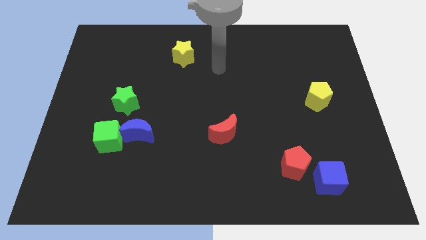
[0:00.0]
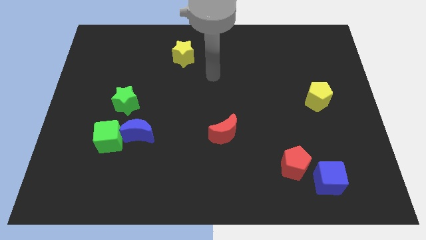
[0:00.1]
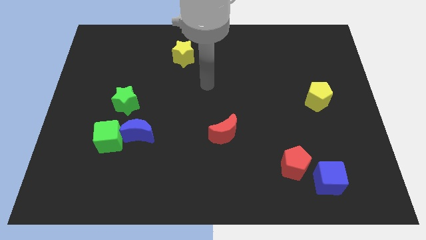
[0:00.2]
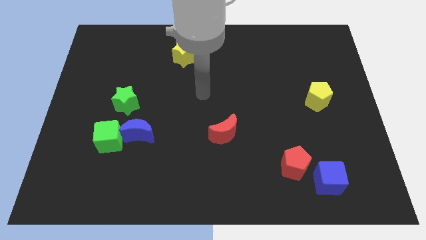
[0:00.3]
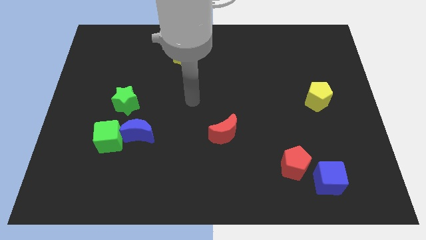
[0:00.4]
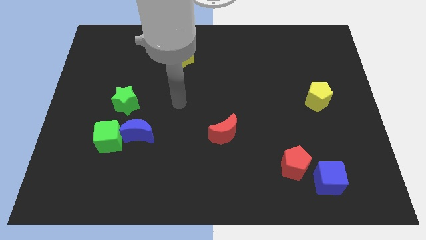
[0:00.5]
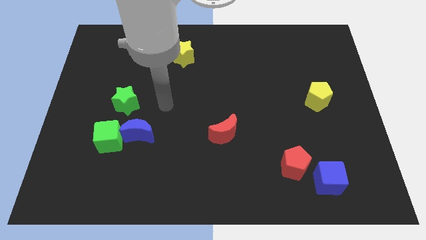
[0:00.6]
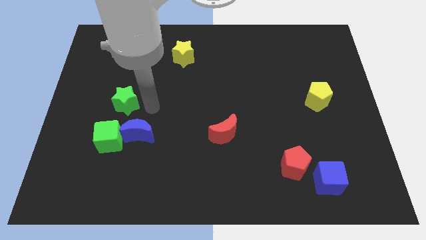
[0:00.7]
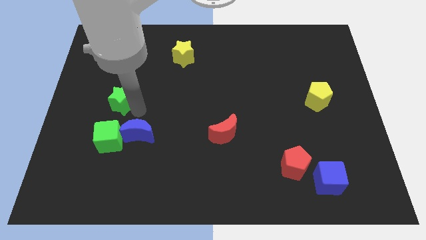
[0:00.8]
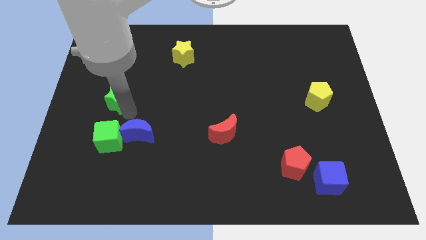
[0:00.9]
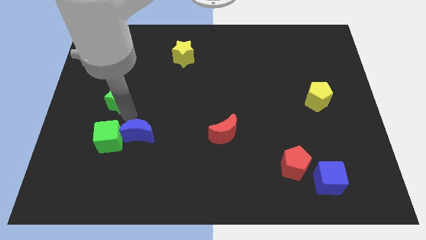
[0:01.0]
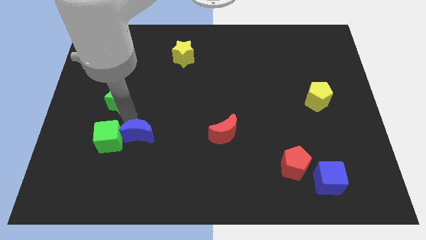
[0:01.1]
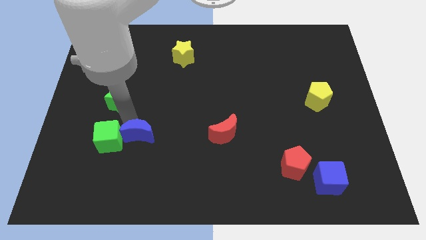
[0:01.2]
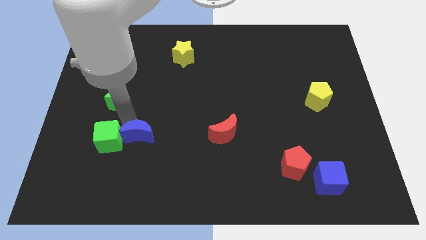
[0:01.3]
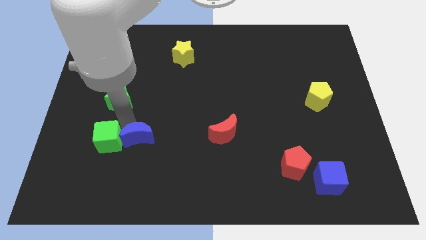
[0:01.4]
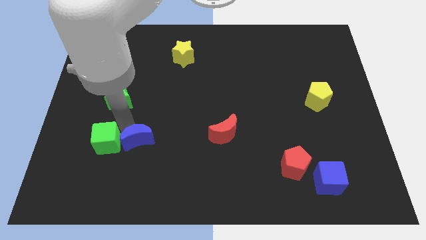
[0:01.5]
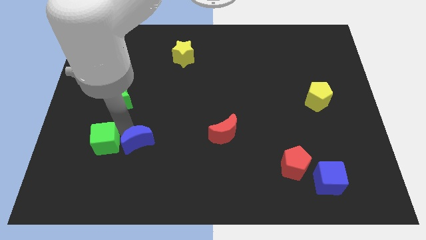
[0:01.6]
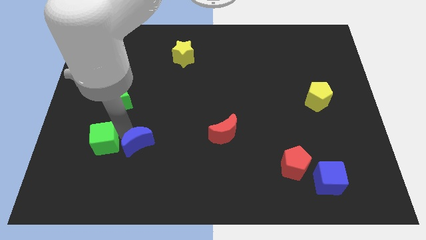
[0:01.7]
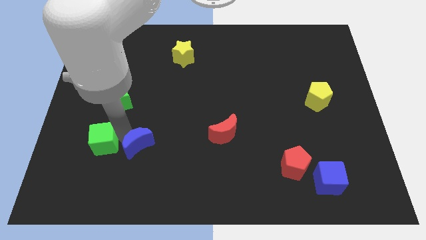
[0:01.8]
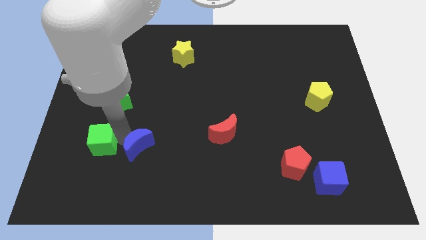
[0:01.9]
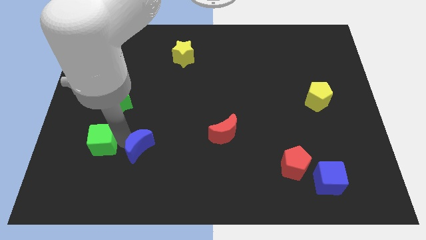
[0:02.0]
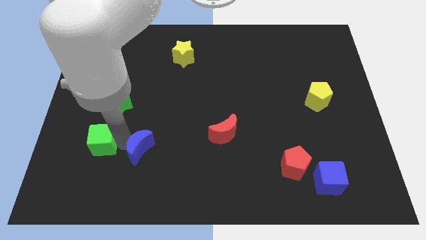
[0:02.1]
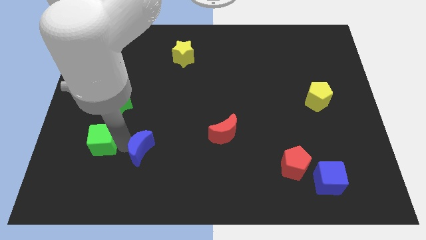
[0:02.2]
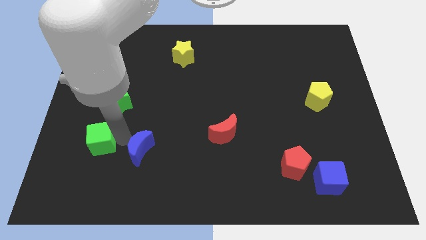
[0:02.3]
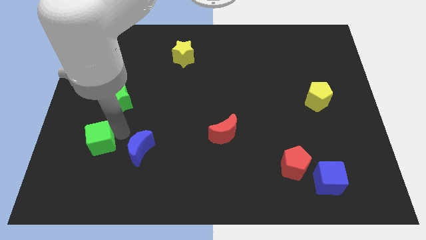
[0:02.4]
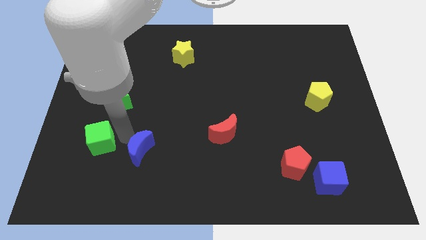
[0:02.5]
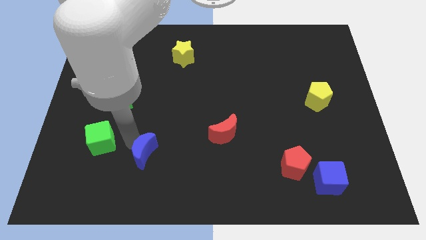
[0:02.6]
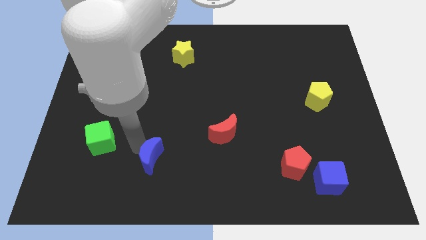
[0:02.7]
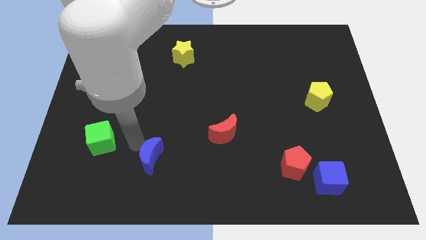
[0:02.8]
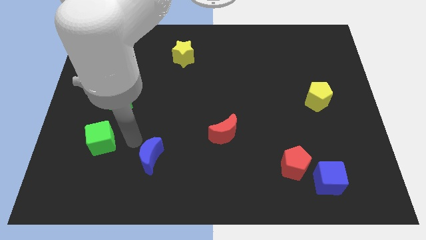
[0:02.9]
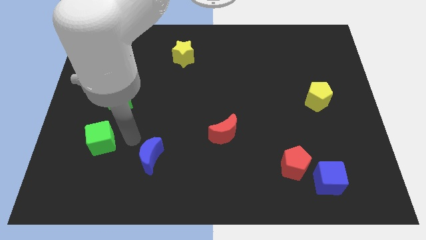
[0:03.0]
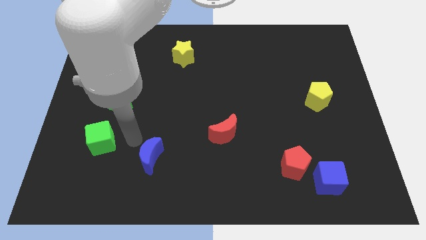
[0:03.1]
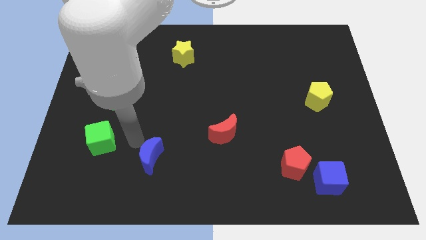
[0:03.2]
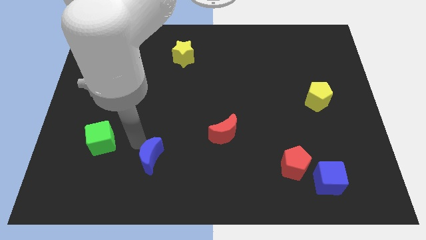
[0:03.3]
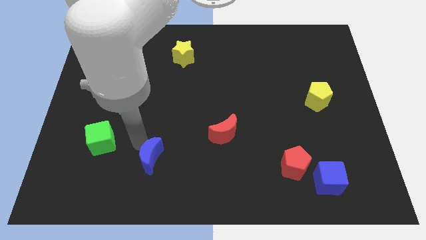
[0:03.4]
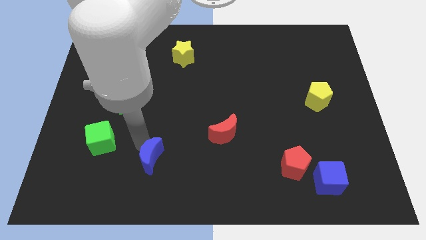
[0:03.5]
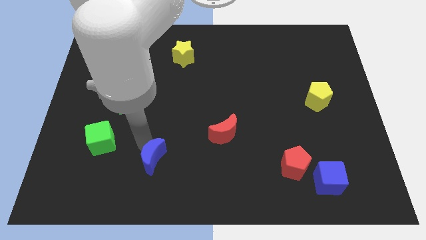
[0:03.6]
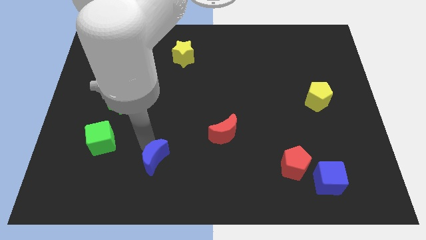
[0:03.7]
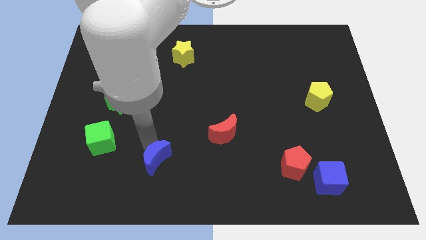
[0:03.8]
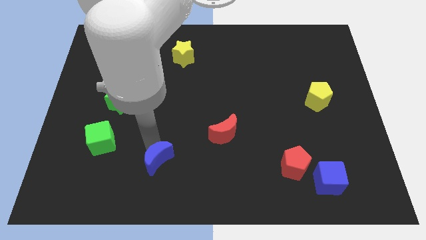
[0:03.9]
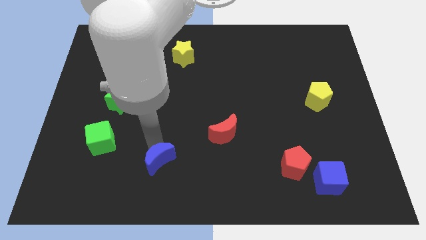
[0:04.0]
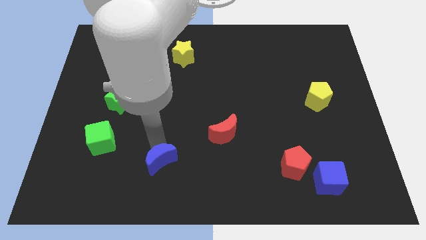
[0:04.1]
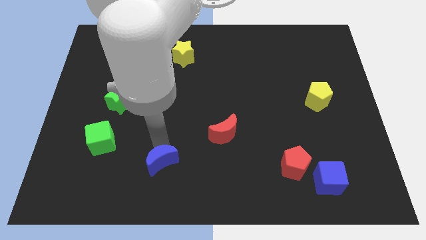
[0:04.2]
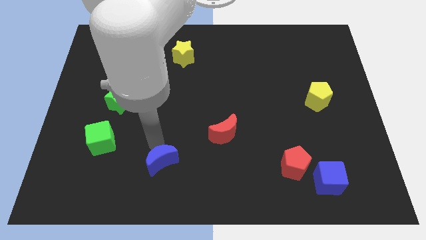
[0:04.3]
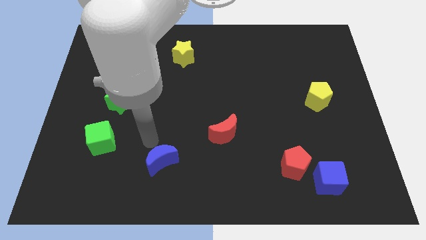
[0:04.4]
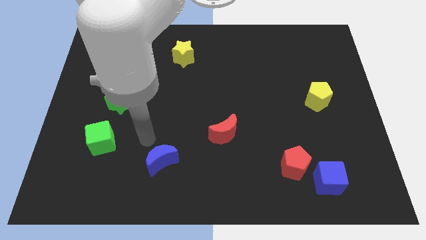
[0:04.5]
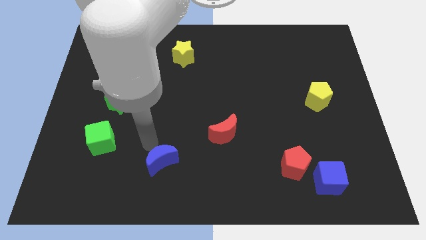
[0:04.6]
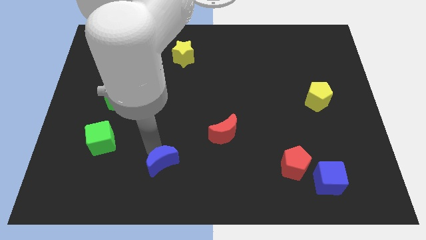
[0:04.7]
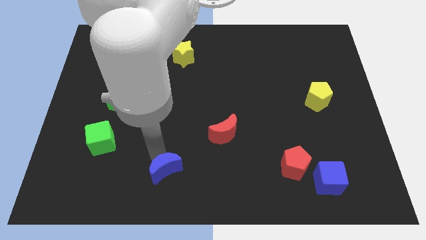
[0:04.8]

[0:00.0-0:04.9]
slide the blue moon to the bottom side

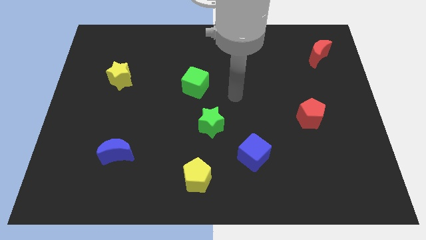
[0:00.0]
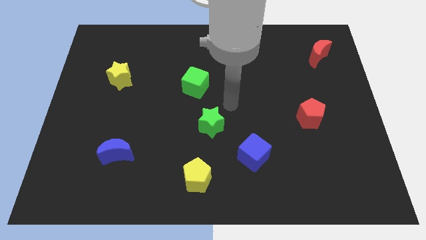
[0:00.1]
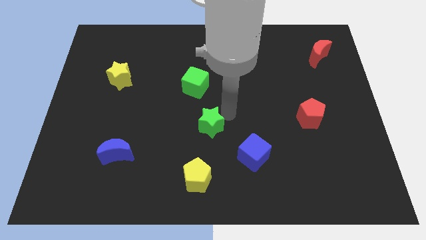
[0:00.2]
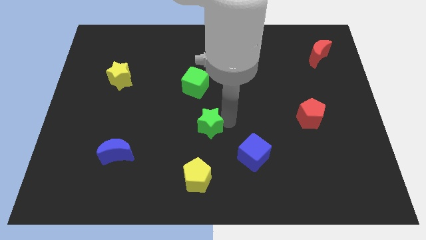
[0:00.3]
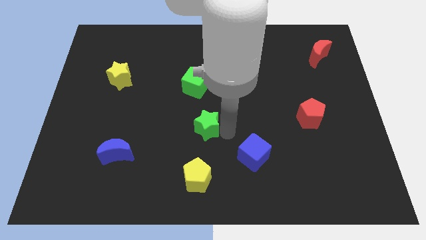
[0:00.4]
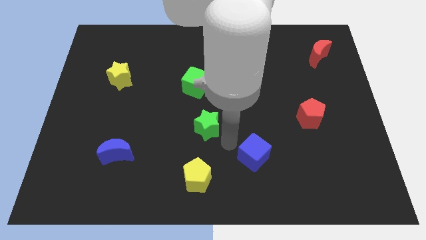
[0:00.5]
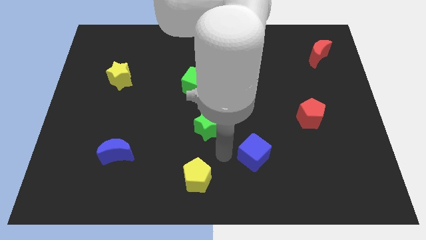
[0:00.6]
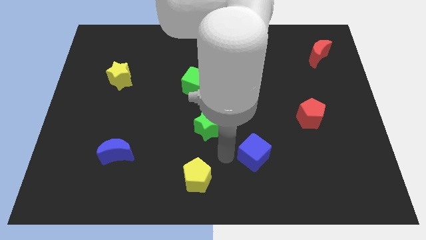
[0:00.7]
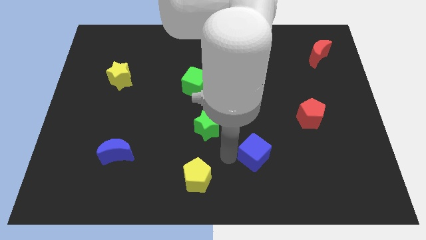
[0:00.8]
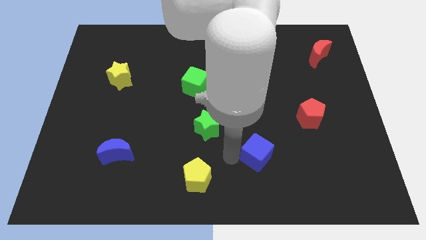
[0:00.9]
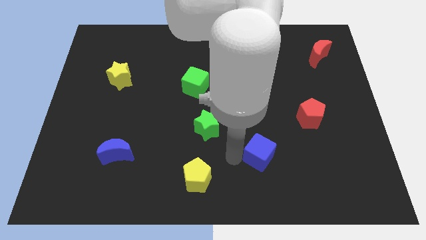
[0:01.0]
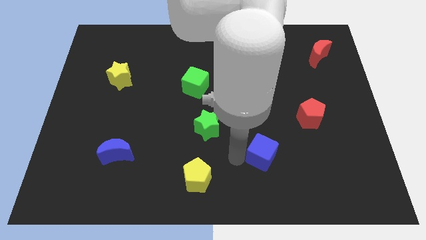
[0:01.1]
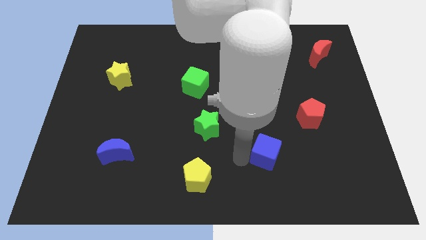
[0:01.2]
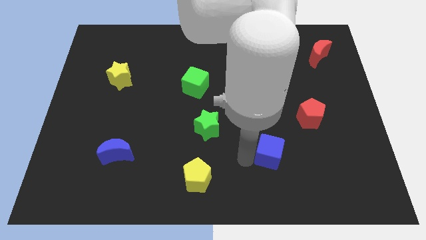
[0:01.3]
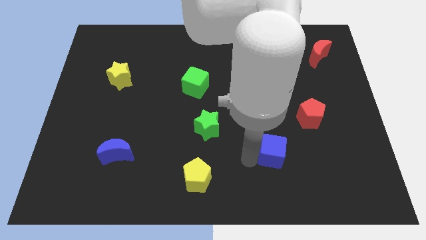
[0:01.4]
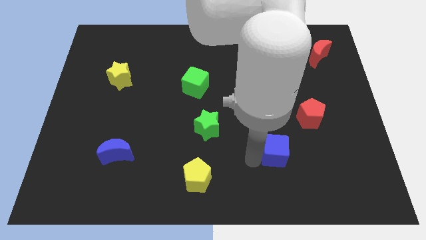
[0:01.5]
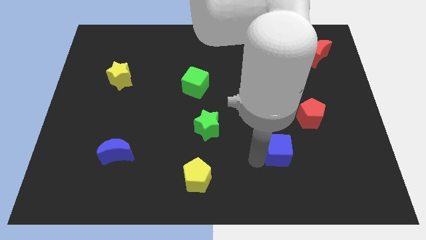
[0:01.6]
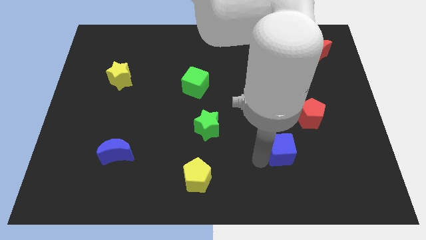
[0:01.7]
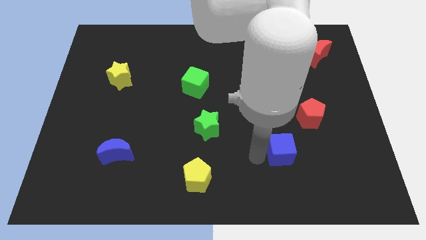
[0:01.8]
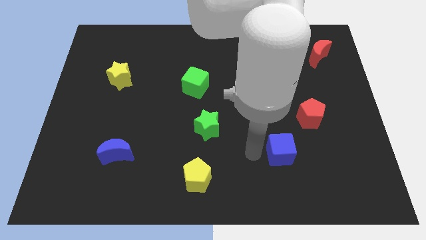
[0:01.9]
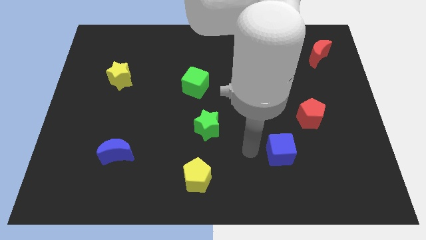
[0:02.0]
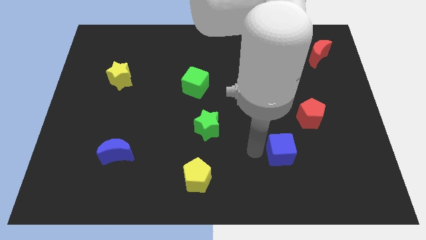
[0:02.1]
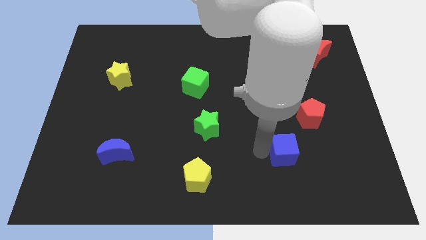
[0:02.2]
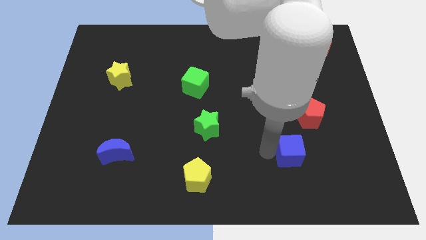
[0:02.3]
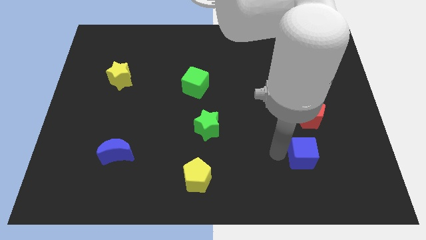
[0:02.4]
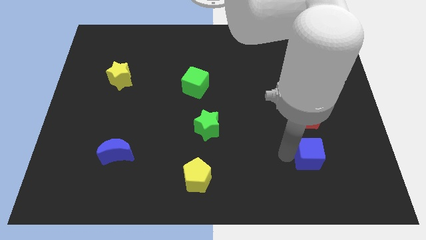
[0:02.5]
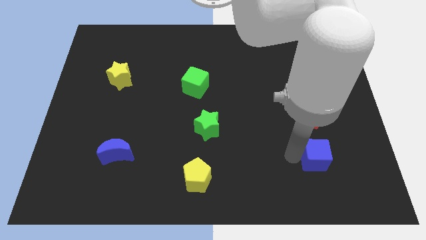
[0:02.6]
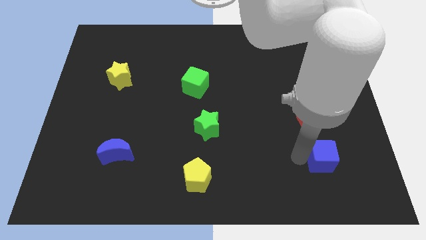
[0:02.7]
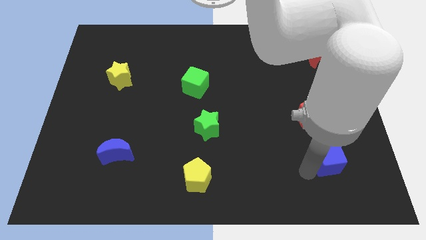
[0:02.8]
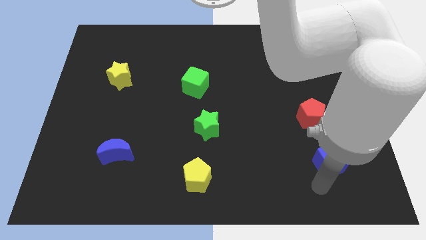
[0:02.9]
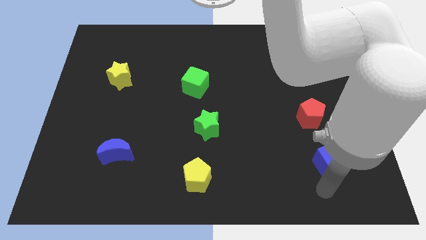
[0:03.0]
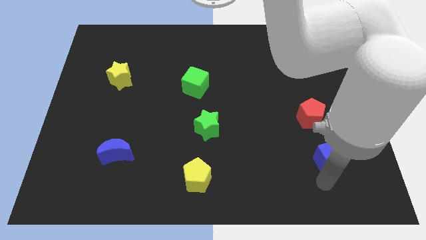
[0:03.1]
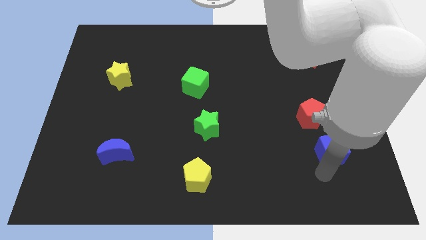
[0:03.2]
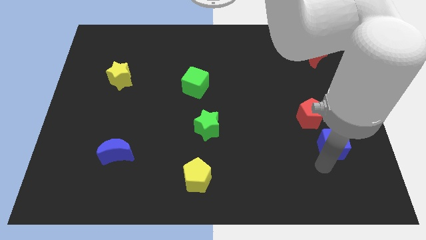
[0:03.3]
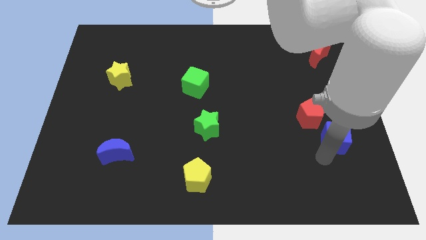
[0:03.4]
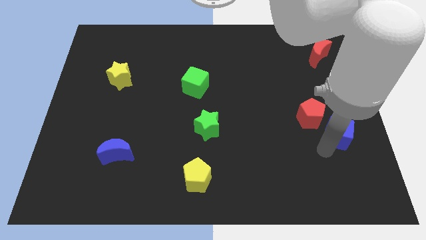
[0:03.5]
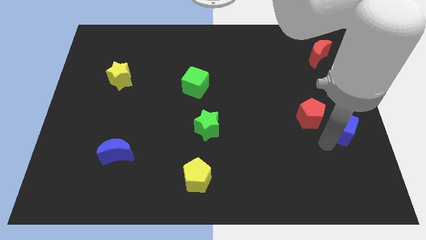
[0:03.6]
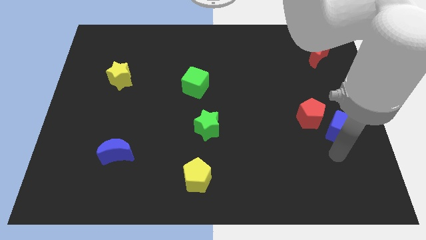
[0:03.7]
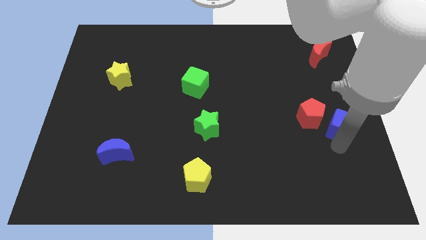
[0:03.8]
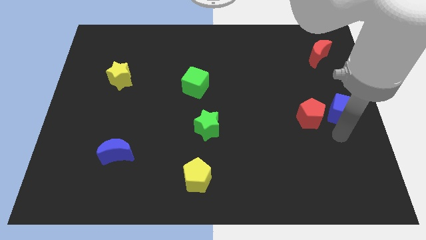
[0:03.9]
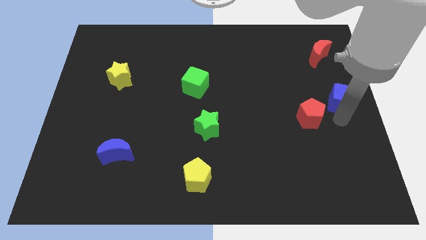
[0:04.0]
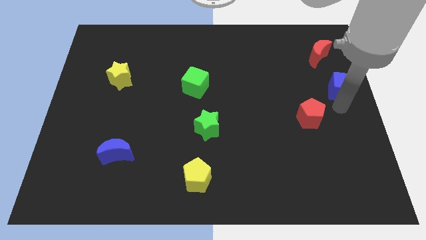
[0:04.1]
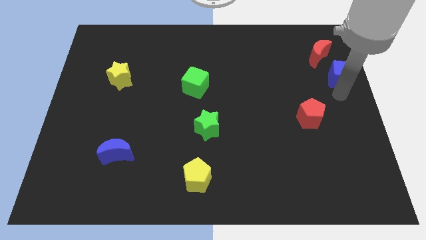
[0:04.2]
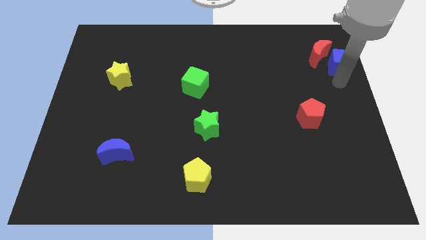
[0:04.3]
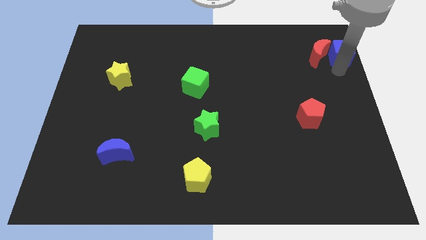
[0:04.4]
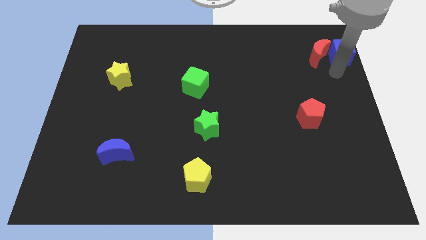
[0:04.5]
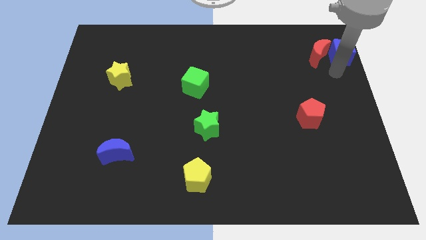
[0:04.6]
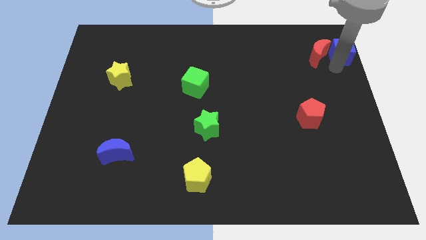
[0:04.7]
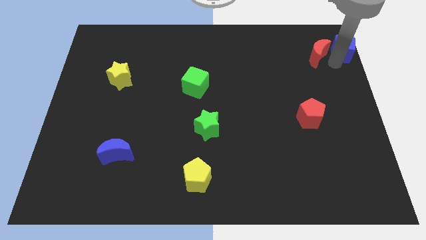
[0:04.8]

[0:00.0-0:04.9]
slide the blue cube to the top right corner
